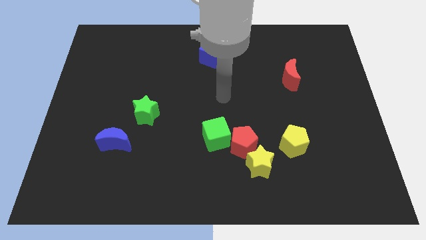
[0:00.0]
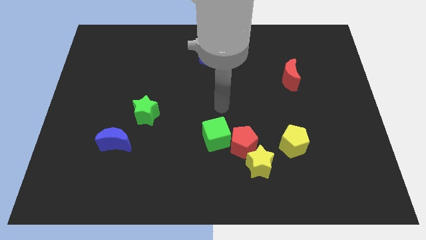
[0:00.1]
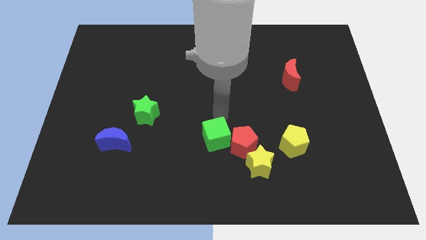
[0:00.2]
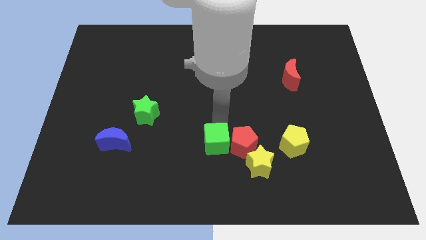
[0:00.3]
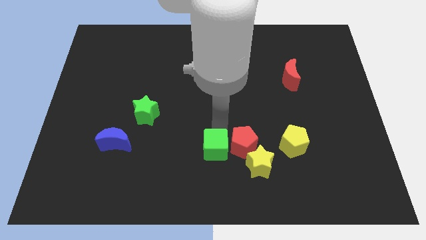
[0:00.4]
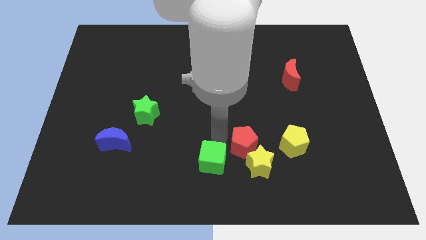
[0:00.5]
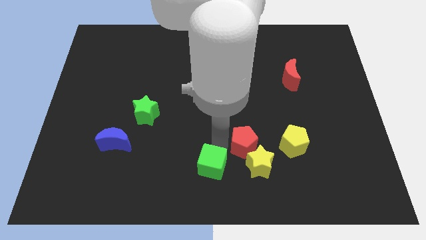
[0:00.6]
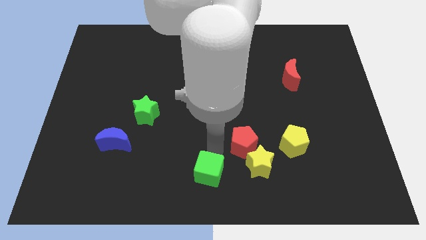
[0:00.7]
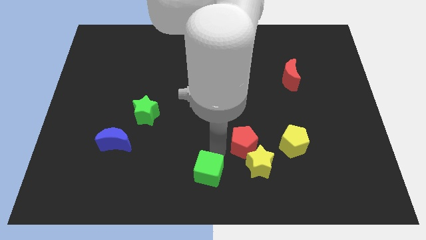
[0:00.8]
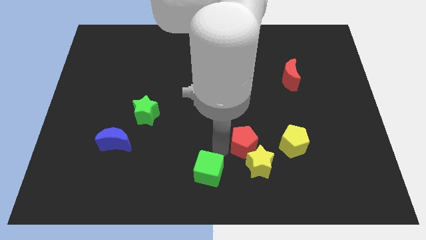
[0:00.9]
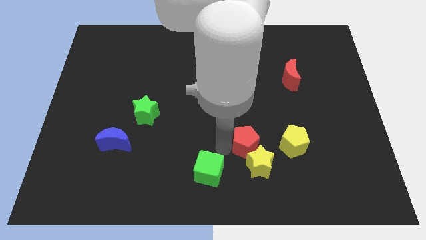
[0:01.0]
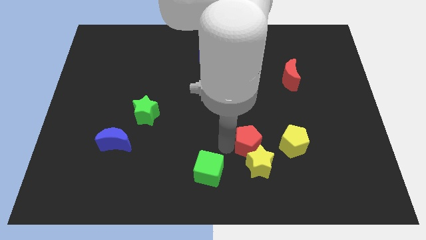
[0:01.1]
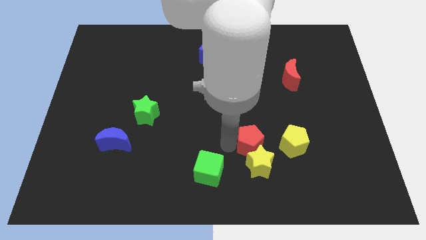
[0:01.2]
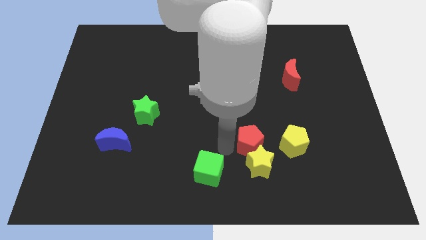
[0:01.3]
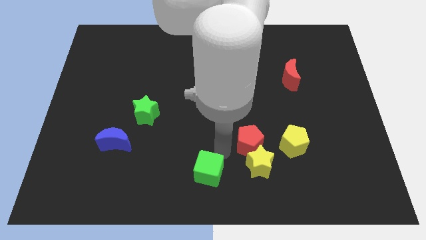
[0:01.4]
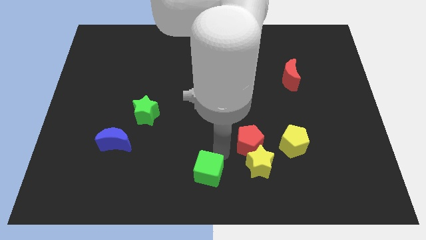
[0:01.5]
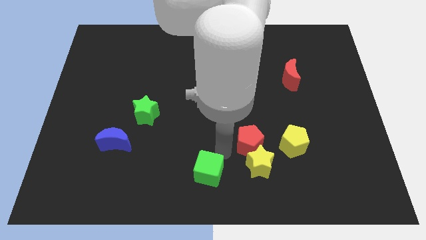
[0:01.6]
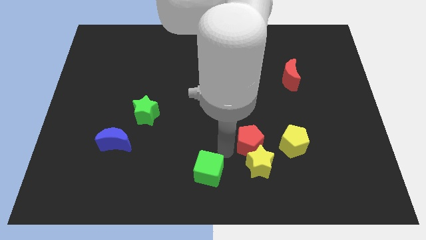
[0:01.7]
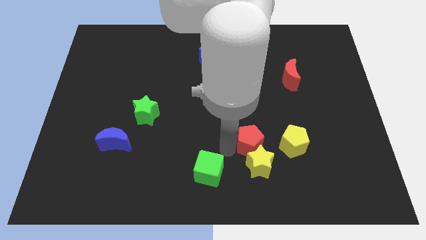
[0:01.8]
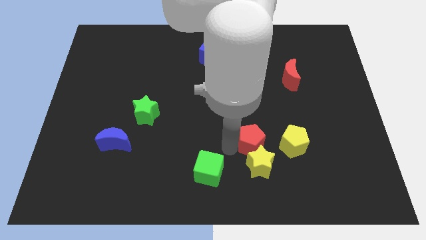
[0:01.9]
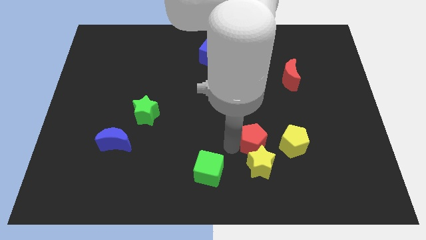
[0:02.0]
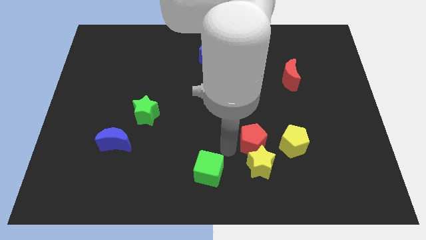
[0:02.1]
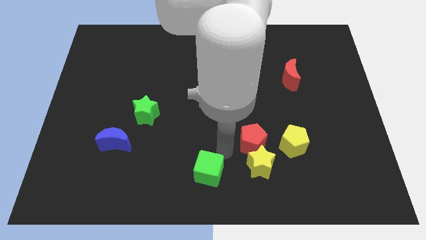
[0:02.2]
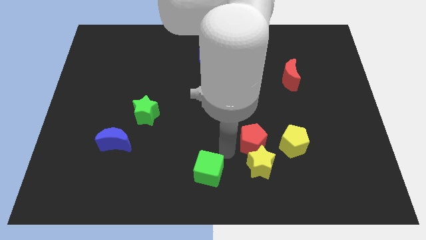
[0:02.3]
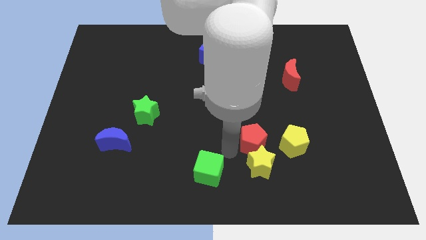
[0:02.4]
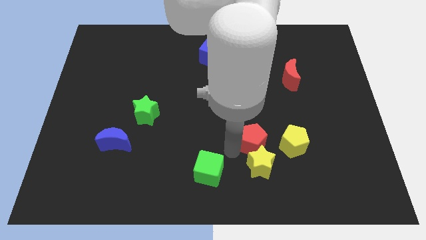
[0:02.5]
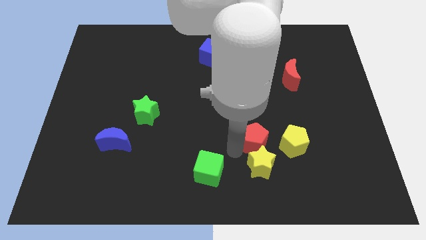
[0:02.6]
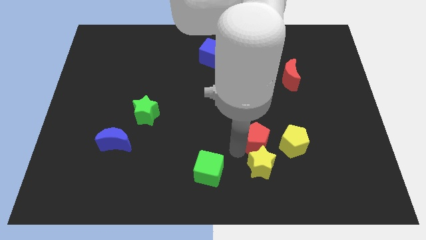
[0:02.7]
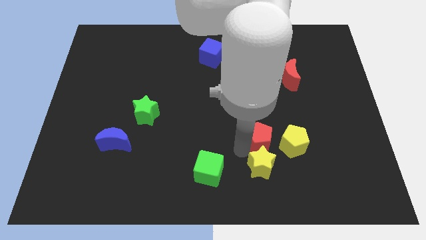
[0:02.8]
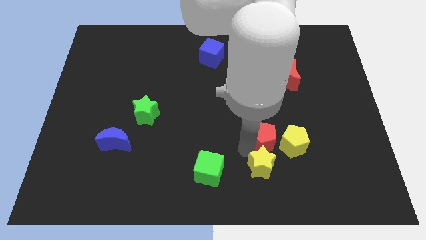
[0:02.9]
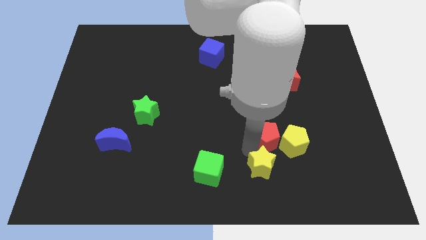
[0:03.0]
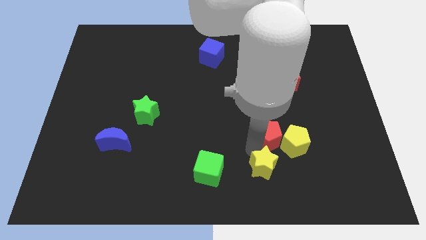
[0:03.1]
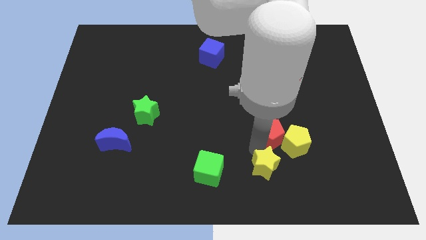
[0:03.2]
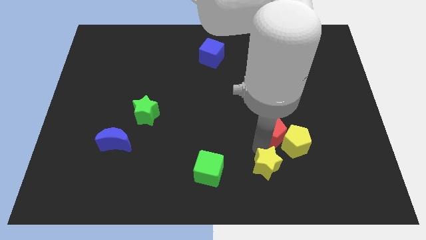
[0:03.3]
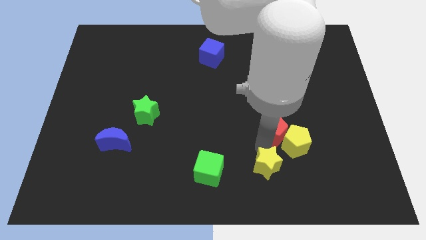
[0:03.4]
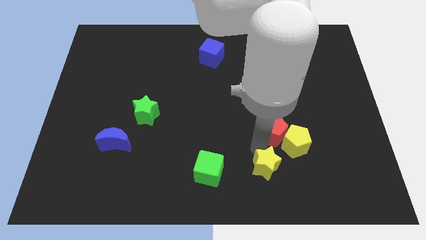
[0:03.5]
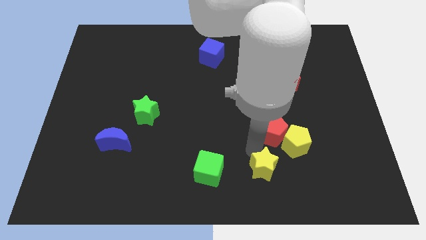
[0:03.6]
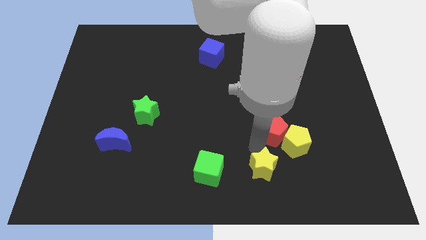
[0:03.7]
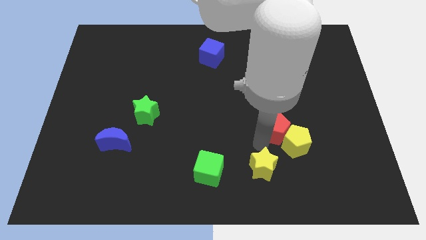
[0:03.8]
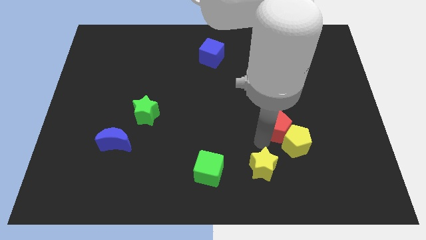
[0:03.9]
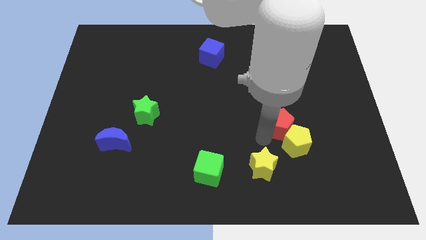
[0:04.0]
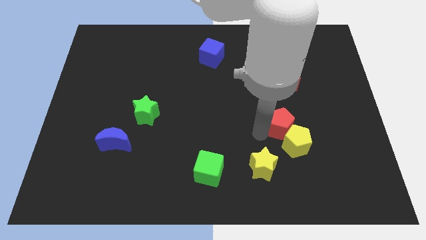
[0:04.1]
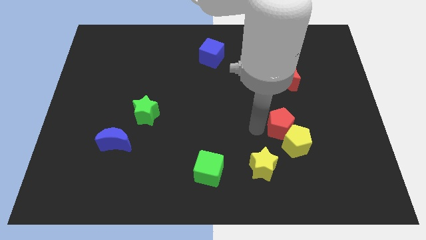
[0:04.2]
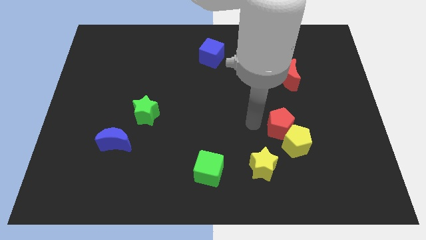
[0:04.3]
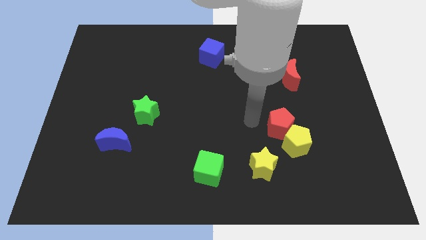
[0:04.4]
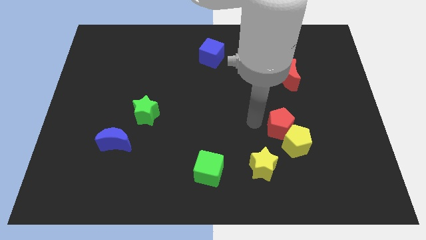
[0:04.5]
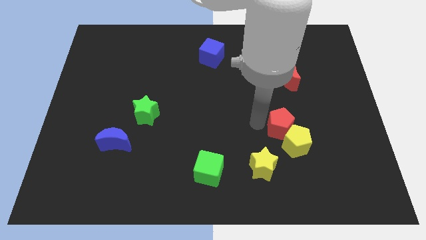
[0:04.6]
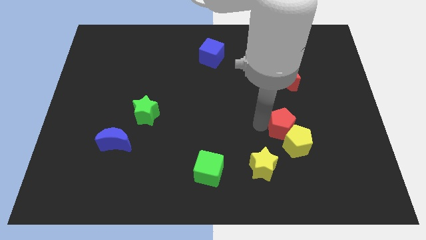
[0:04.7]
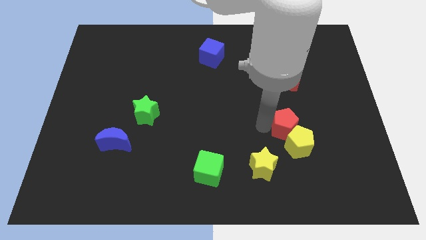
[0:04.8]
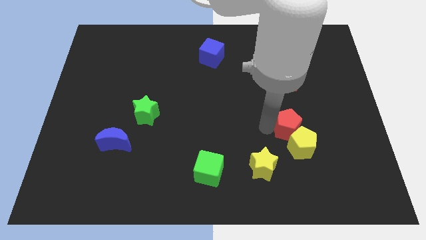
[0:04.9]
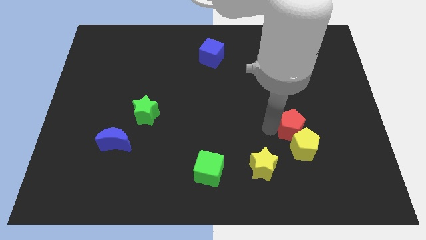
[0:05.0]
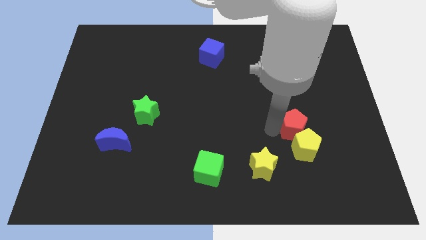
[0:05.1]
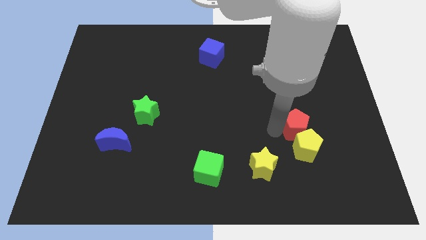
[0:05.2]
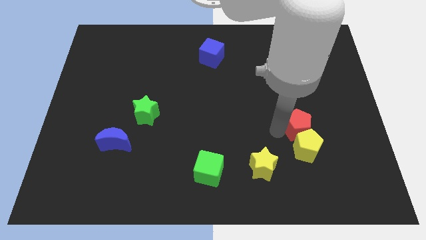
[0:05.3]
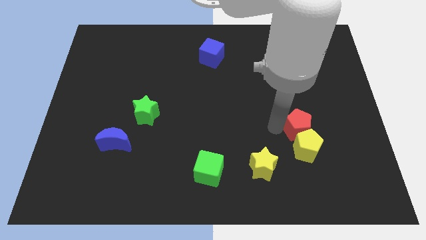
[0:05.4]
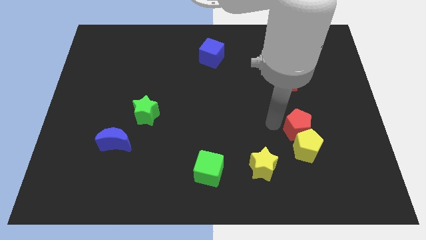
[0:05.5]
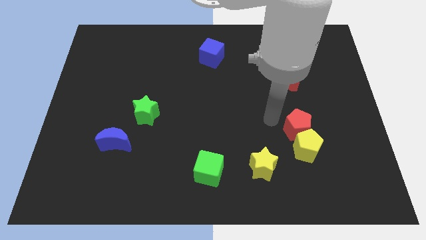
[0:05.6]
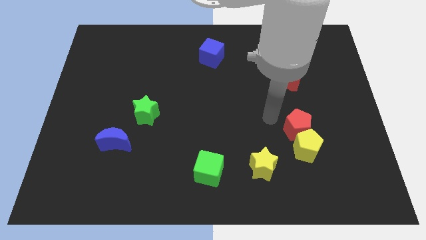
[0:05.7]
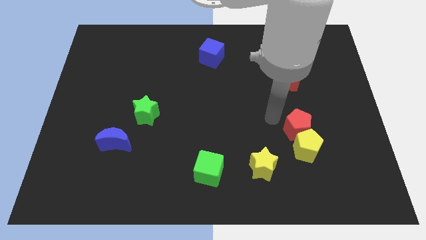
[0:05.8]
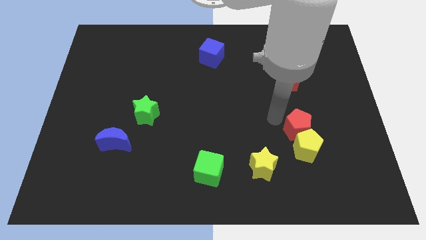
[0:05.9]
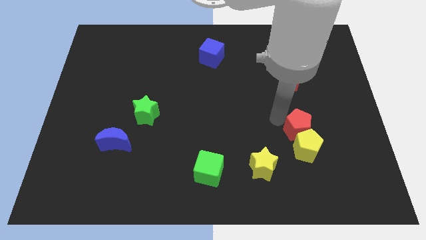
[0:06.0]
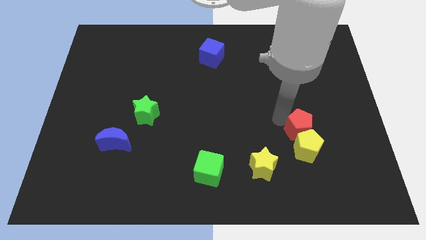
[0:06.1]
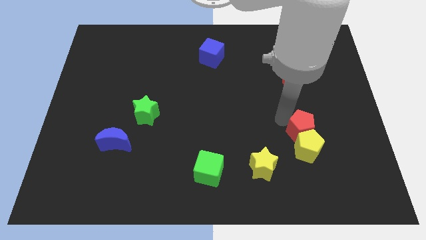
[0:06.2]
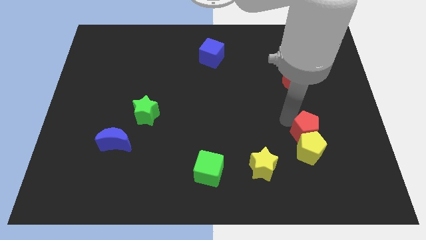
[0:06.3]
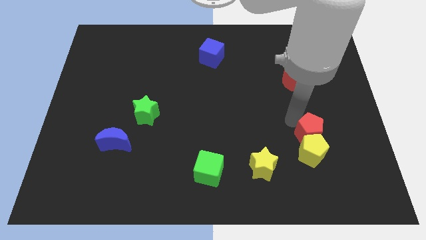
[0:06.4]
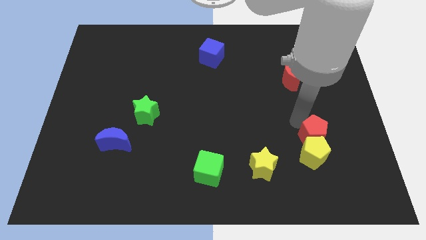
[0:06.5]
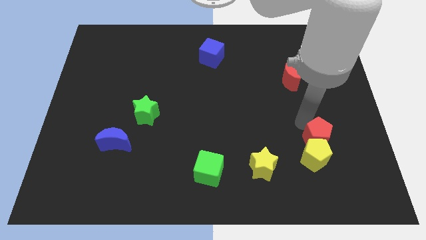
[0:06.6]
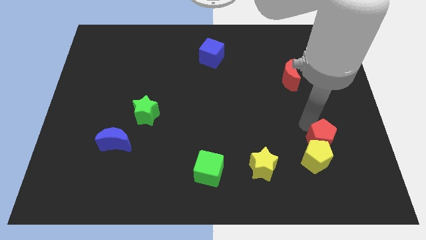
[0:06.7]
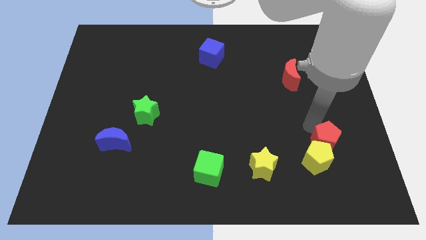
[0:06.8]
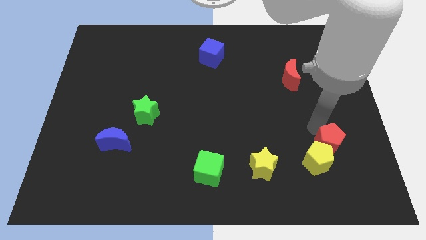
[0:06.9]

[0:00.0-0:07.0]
move the red pentagon to the right of the yellow pentagon

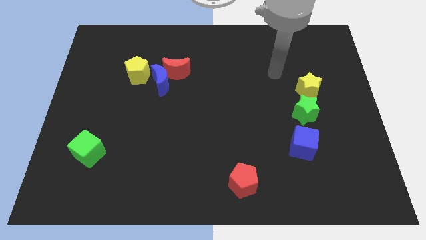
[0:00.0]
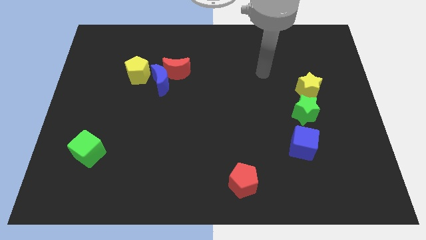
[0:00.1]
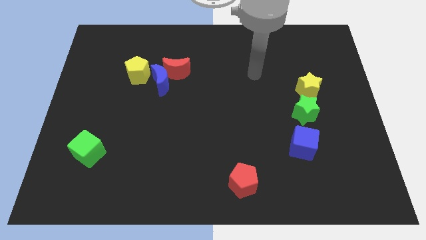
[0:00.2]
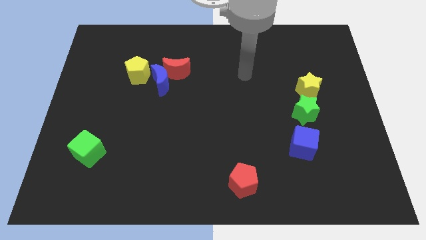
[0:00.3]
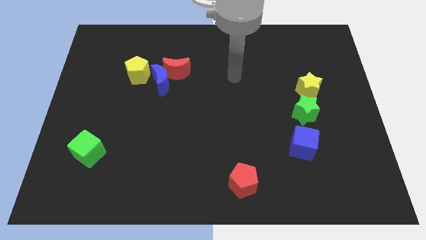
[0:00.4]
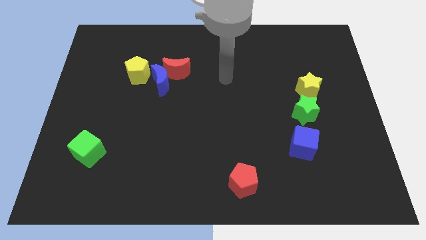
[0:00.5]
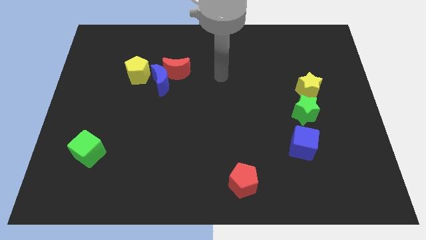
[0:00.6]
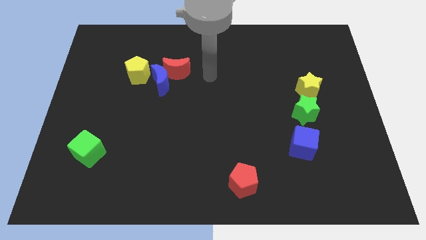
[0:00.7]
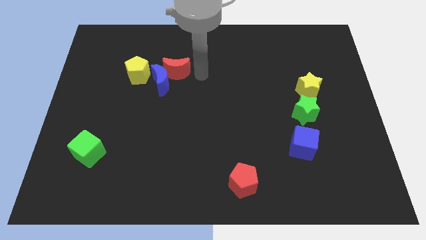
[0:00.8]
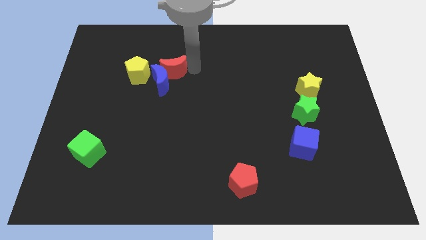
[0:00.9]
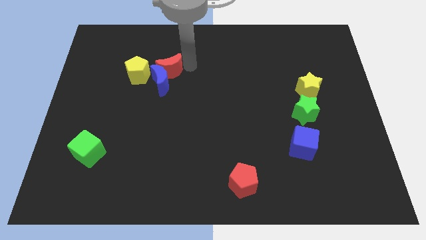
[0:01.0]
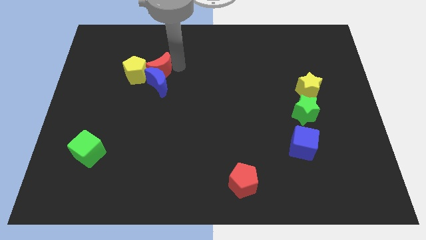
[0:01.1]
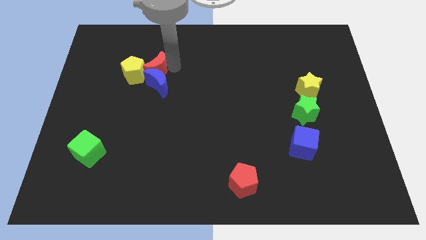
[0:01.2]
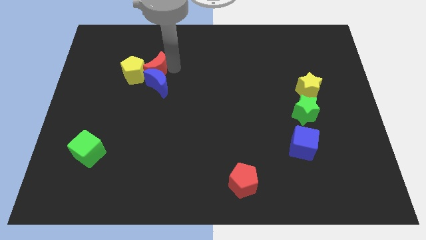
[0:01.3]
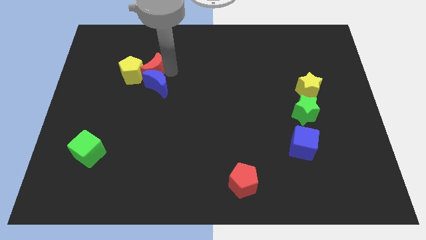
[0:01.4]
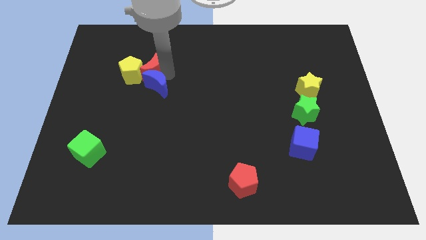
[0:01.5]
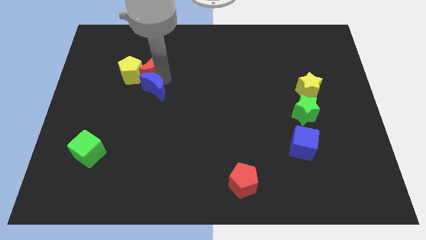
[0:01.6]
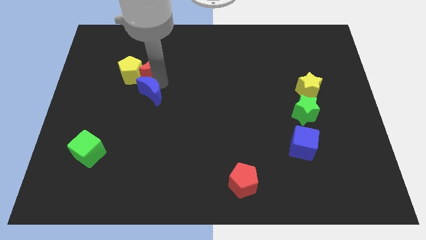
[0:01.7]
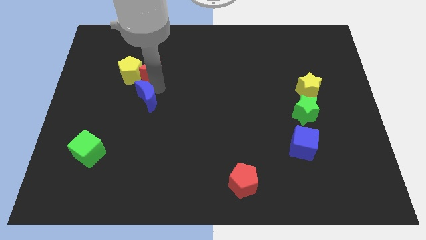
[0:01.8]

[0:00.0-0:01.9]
slide the blue moon to the bottom of the yellow pentagon
